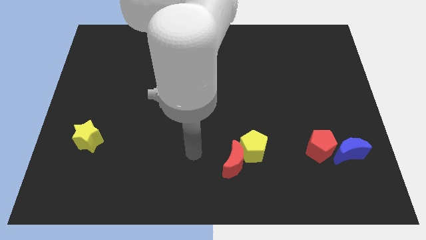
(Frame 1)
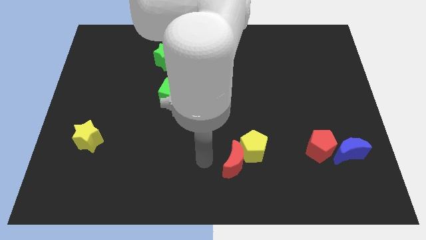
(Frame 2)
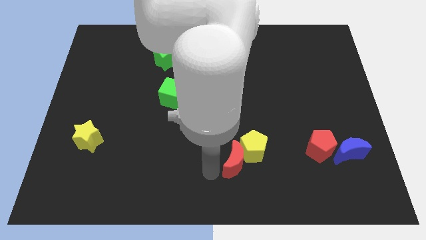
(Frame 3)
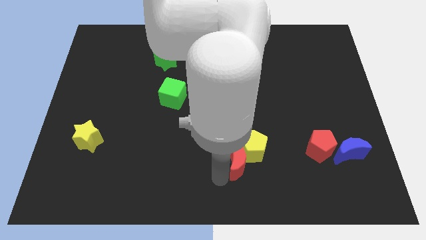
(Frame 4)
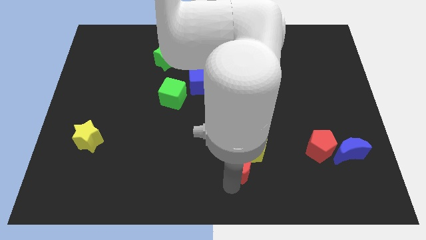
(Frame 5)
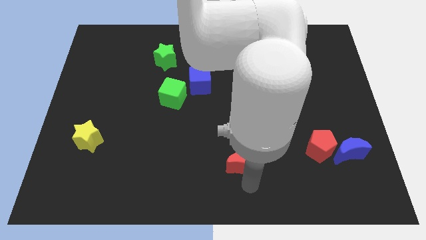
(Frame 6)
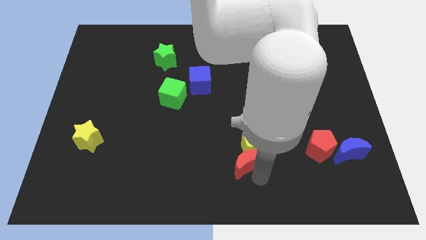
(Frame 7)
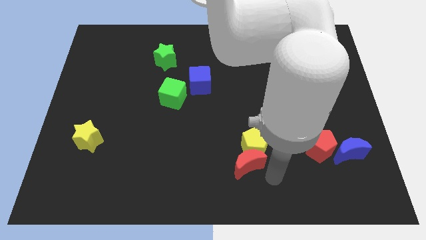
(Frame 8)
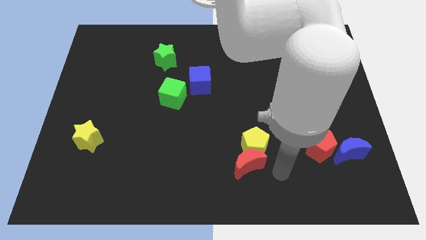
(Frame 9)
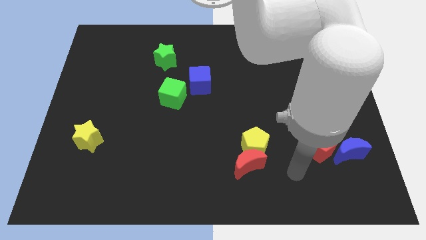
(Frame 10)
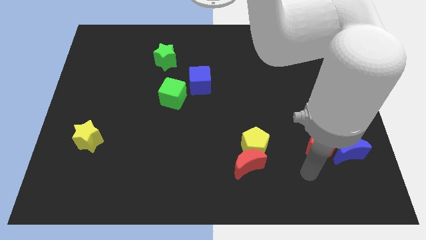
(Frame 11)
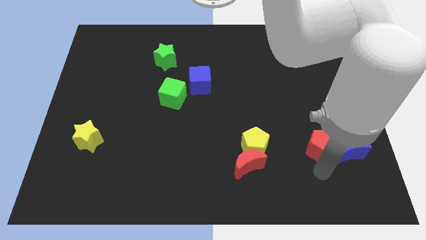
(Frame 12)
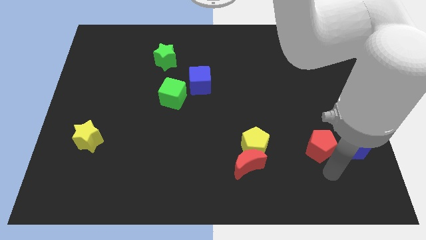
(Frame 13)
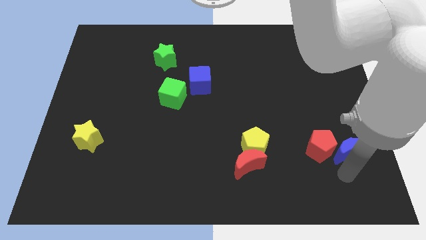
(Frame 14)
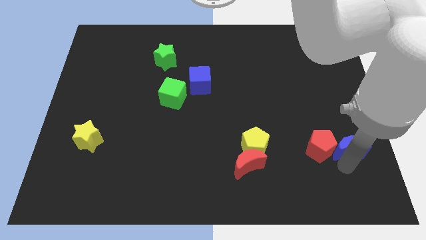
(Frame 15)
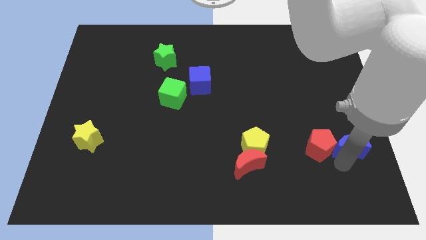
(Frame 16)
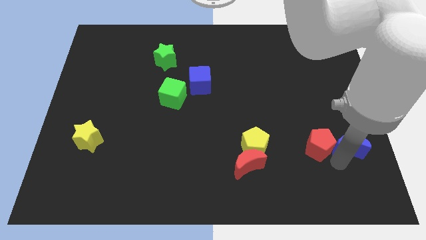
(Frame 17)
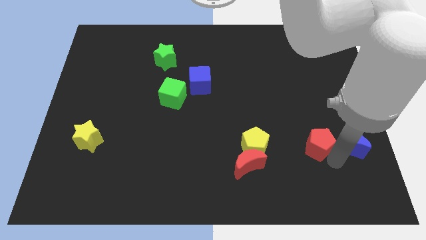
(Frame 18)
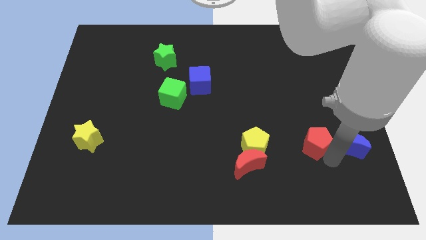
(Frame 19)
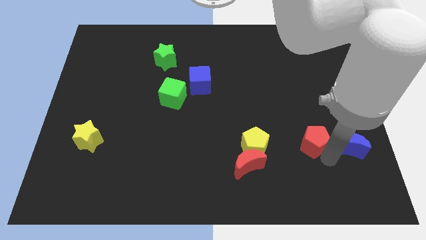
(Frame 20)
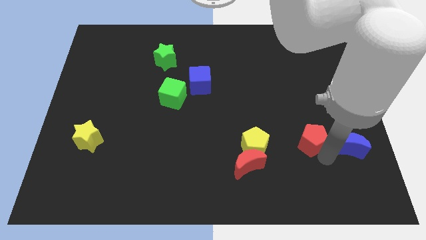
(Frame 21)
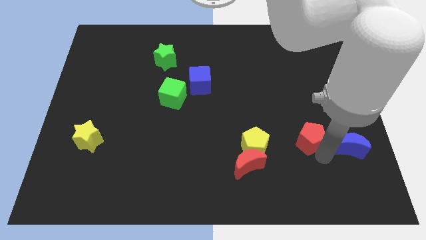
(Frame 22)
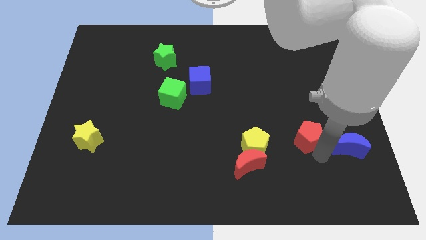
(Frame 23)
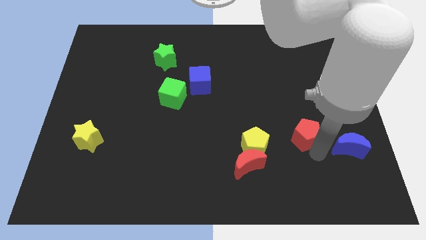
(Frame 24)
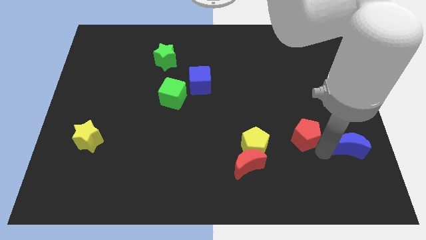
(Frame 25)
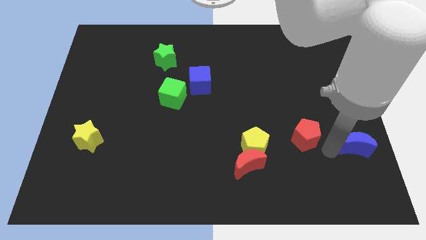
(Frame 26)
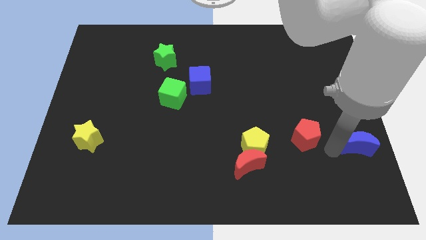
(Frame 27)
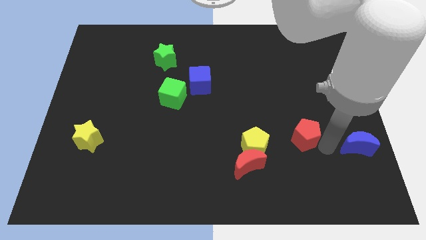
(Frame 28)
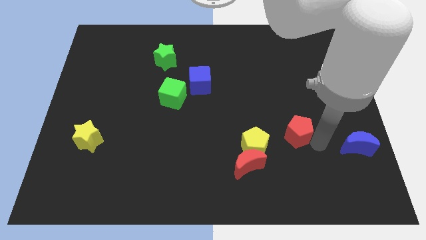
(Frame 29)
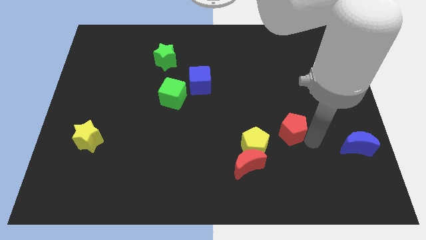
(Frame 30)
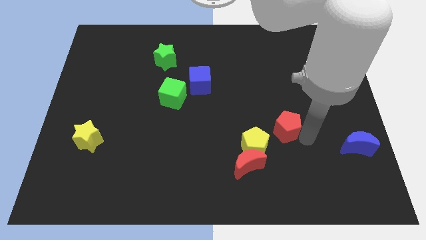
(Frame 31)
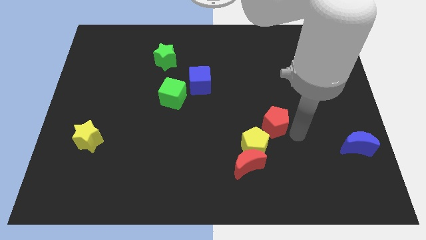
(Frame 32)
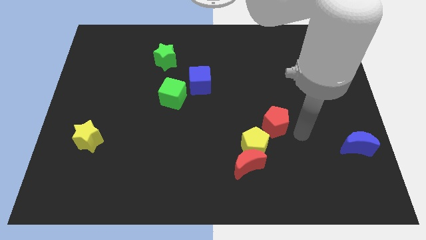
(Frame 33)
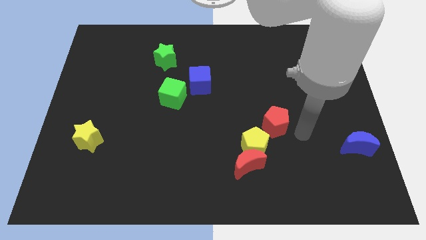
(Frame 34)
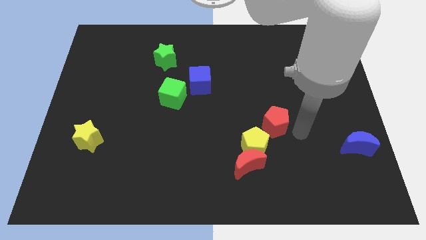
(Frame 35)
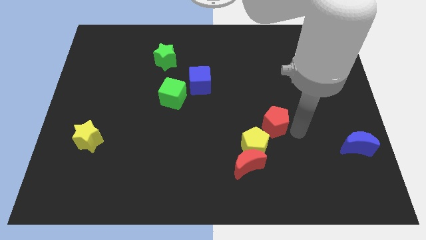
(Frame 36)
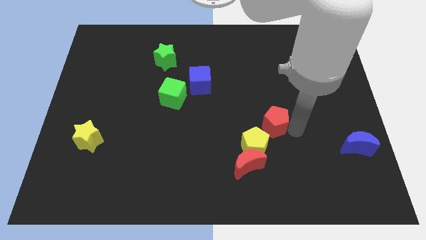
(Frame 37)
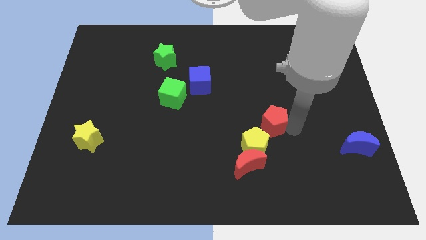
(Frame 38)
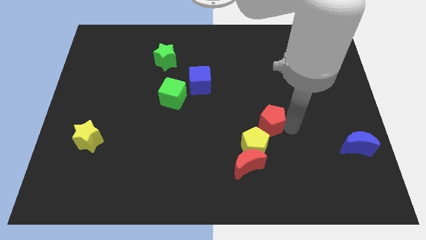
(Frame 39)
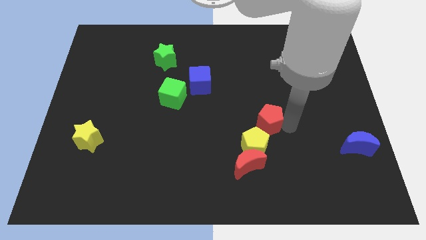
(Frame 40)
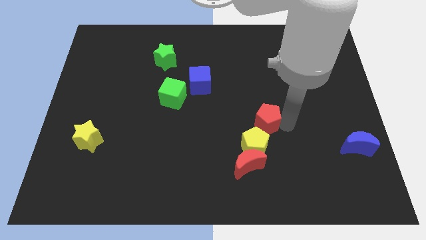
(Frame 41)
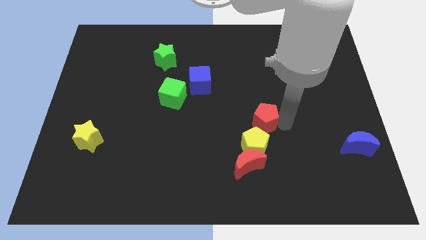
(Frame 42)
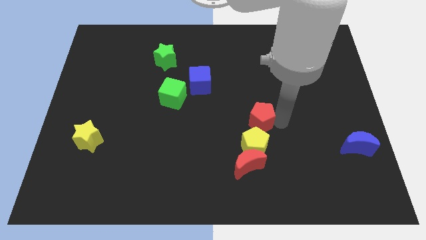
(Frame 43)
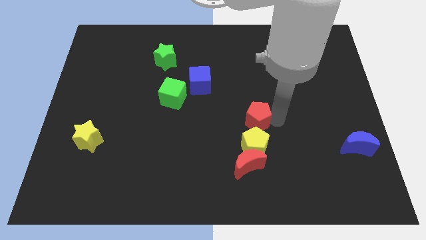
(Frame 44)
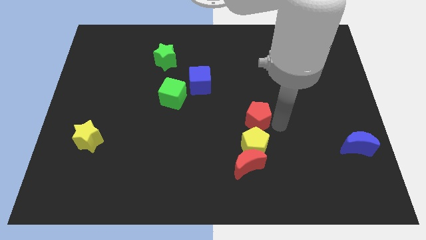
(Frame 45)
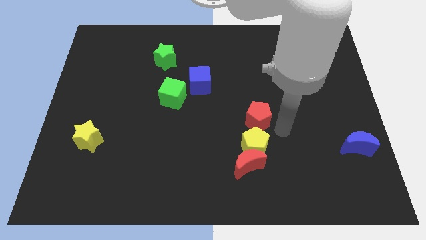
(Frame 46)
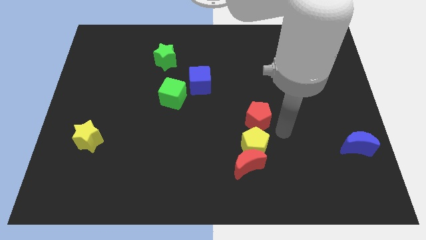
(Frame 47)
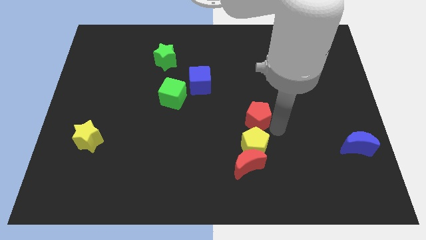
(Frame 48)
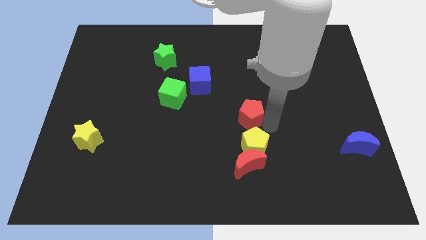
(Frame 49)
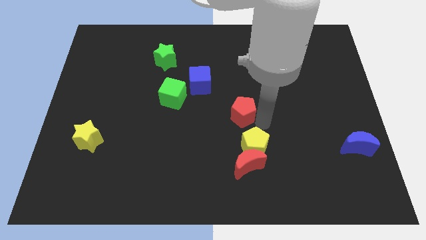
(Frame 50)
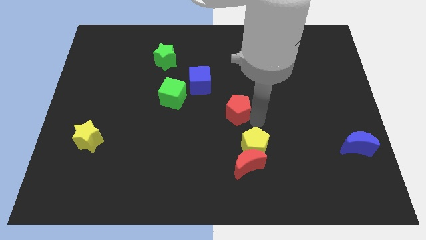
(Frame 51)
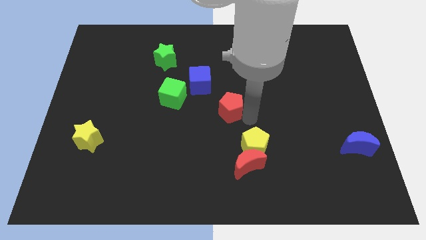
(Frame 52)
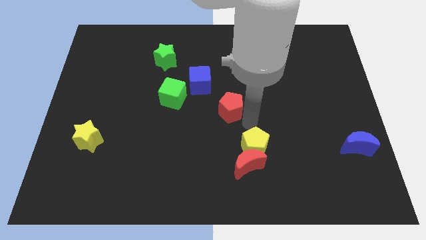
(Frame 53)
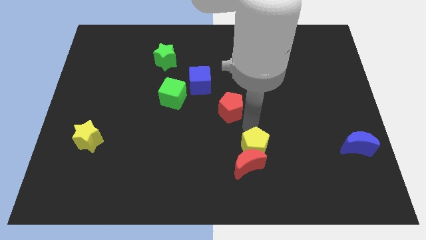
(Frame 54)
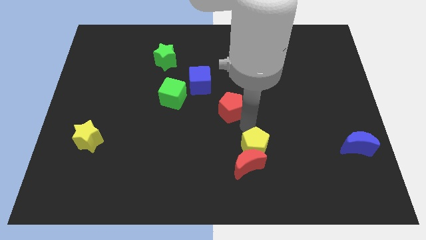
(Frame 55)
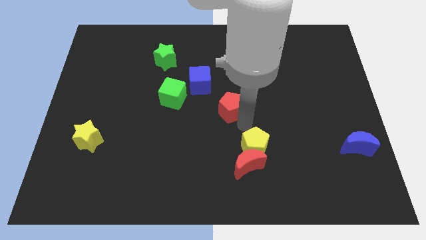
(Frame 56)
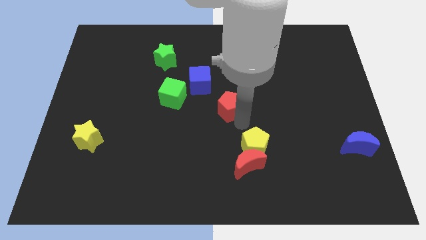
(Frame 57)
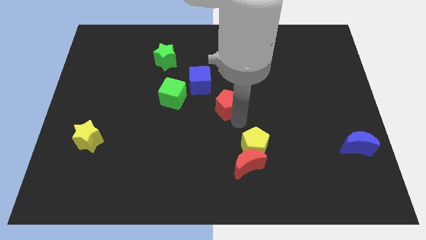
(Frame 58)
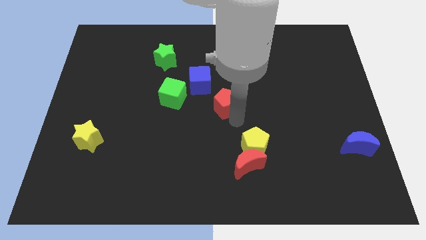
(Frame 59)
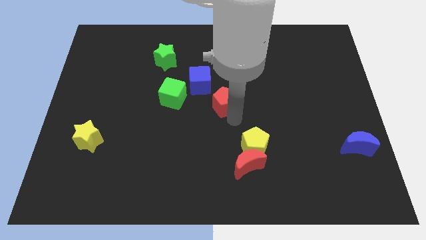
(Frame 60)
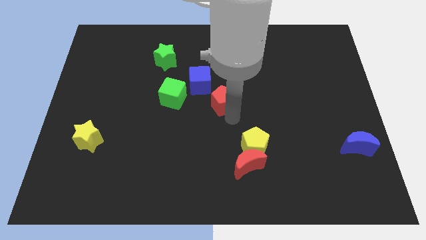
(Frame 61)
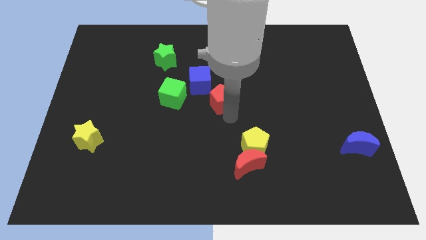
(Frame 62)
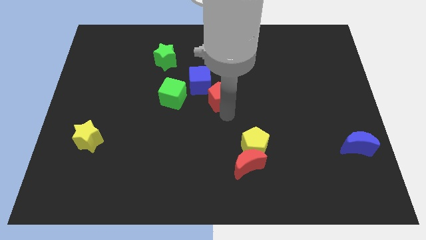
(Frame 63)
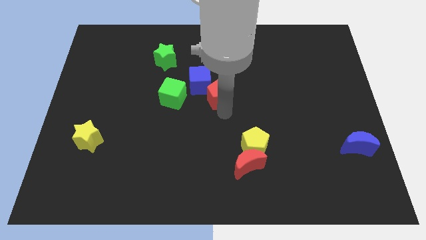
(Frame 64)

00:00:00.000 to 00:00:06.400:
push the red pentagon to the blue cube

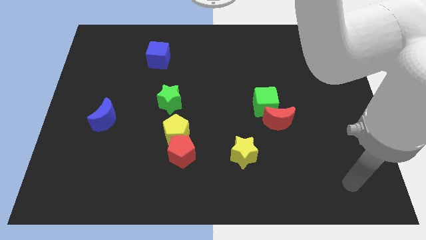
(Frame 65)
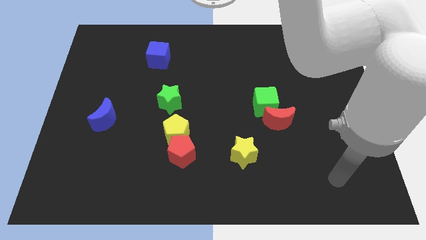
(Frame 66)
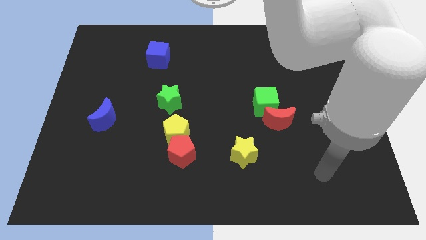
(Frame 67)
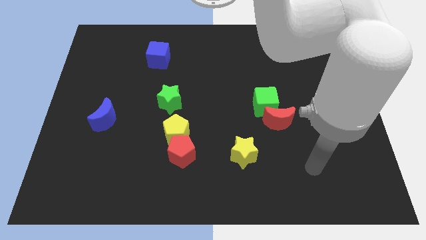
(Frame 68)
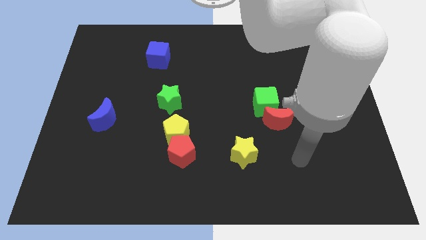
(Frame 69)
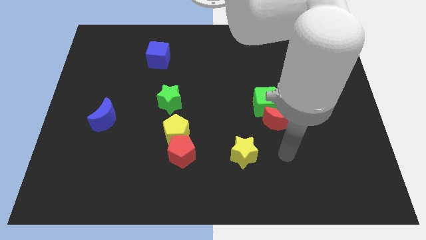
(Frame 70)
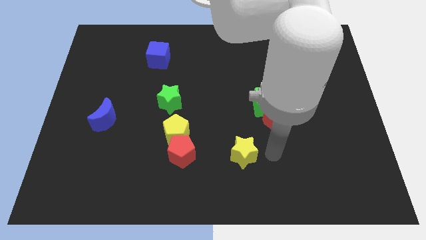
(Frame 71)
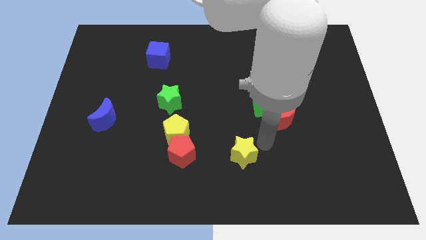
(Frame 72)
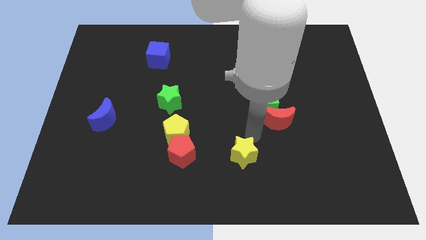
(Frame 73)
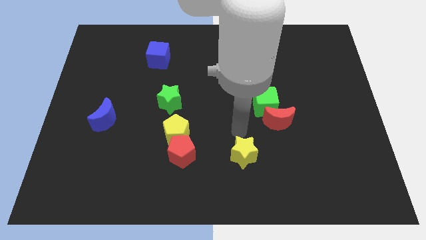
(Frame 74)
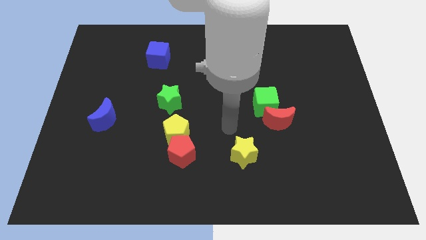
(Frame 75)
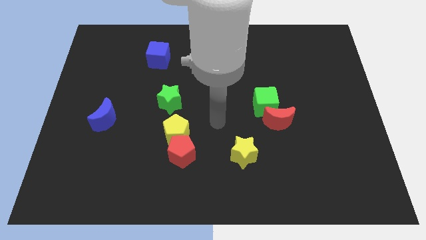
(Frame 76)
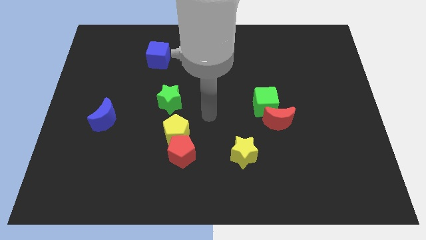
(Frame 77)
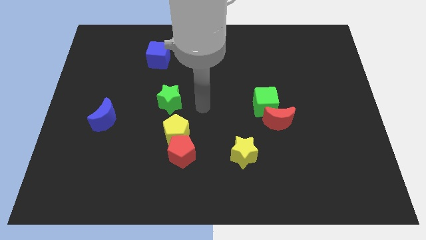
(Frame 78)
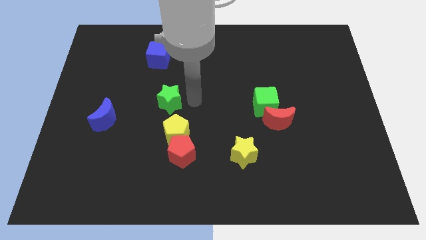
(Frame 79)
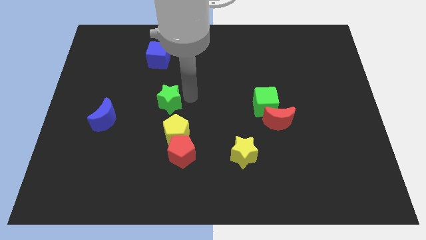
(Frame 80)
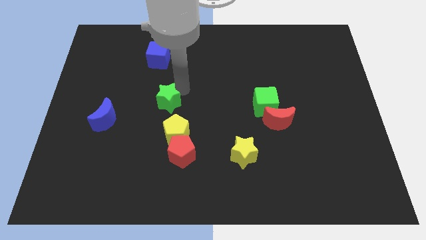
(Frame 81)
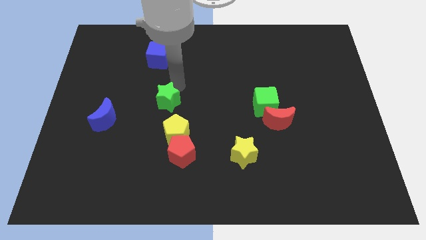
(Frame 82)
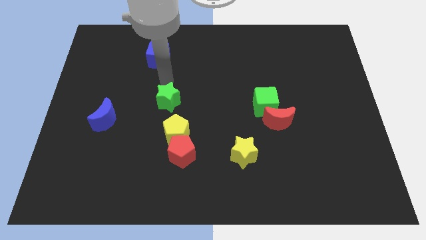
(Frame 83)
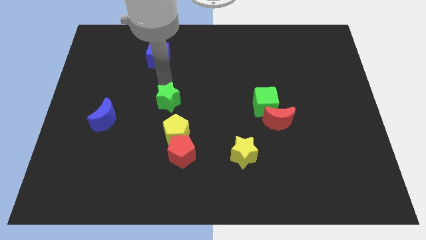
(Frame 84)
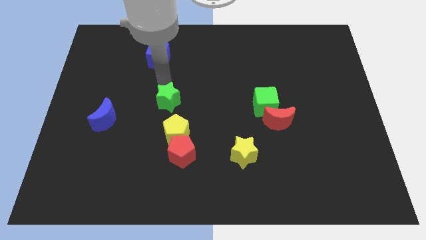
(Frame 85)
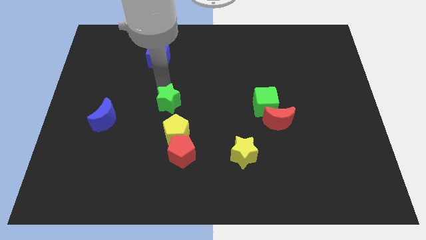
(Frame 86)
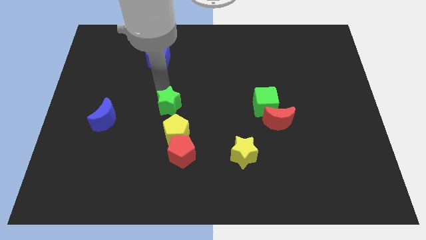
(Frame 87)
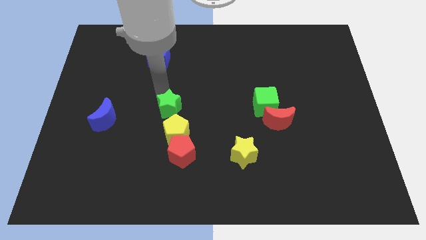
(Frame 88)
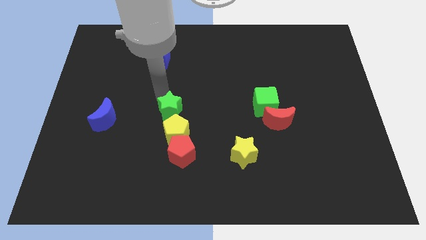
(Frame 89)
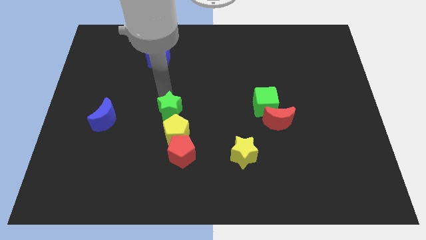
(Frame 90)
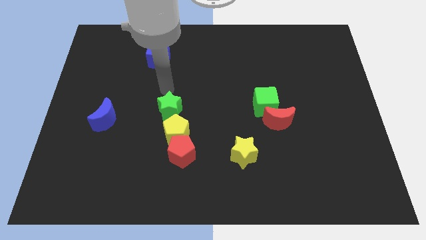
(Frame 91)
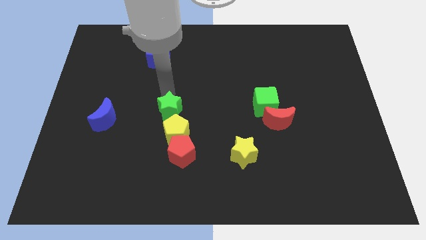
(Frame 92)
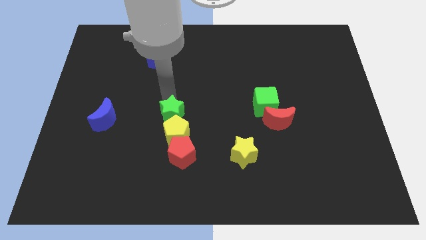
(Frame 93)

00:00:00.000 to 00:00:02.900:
move the green star next to the yellow pentagon
